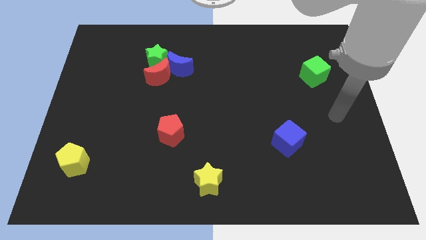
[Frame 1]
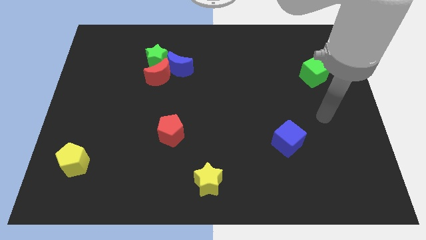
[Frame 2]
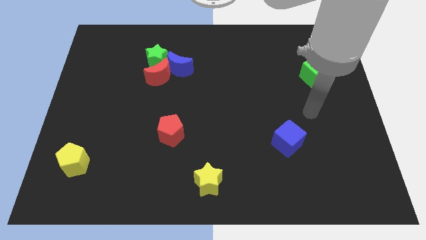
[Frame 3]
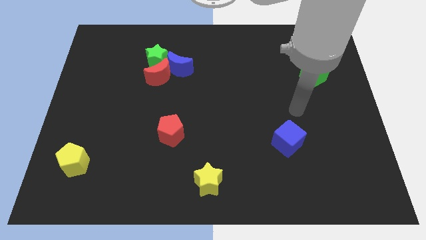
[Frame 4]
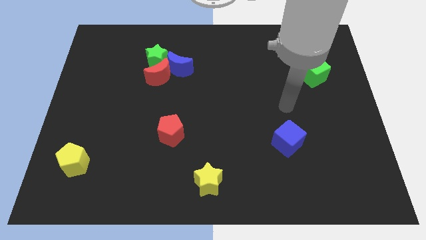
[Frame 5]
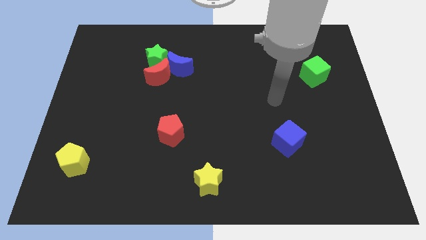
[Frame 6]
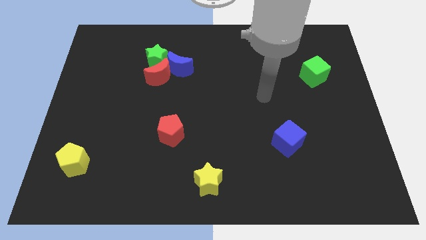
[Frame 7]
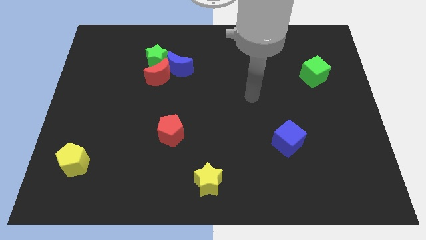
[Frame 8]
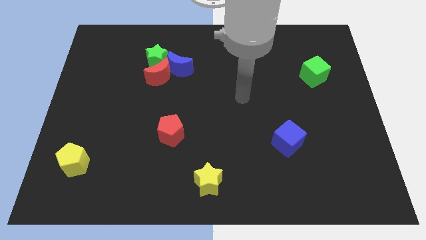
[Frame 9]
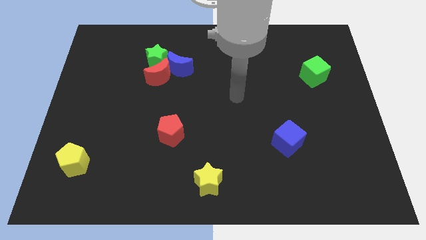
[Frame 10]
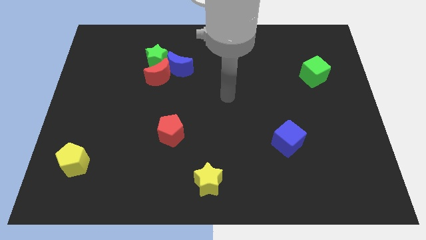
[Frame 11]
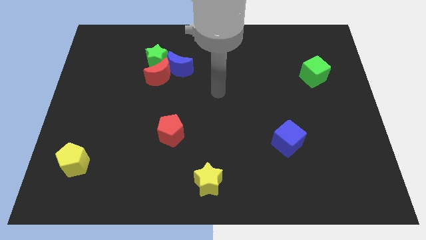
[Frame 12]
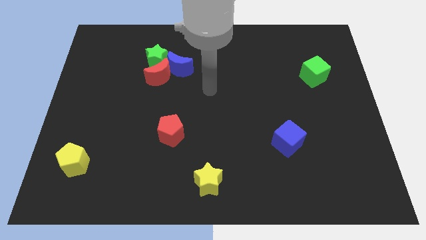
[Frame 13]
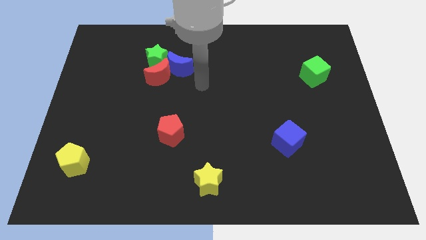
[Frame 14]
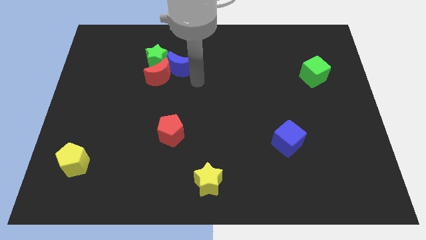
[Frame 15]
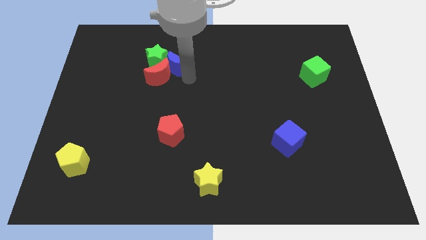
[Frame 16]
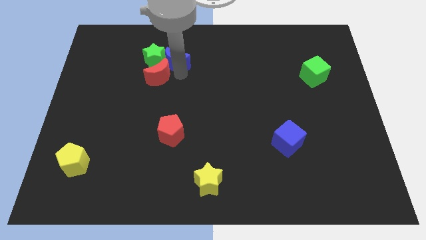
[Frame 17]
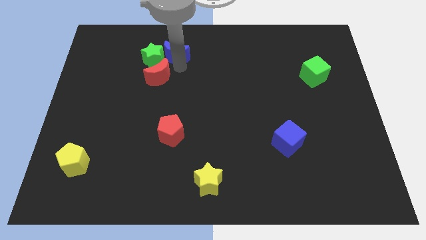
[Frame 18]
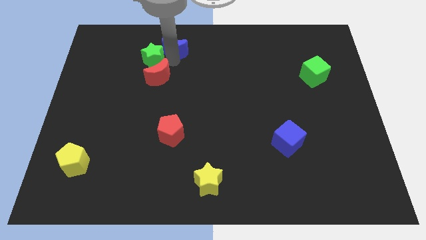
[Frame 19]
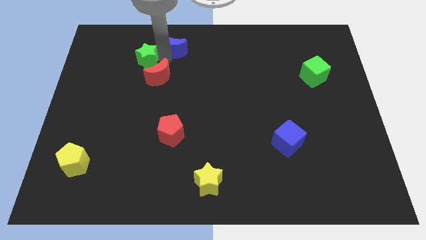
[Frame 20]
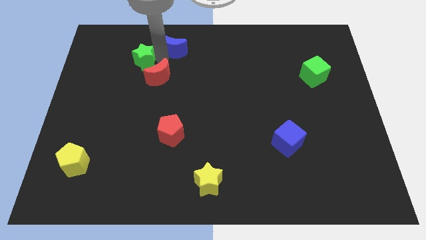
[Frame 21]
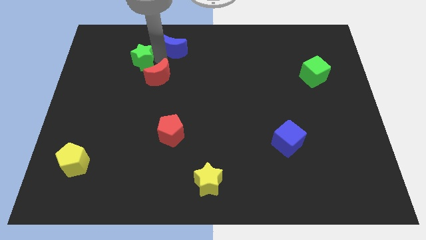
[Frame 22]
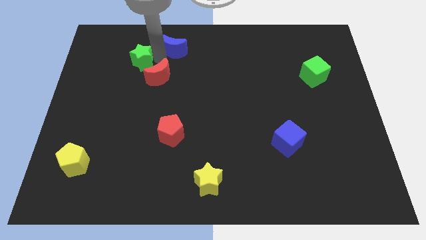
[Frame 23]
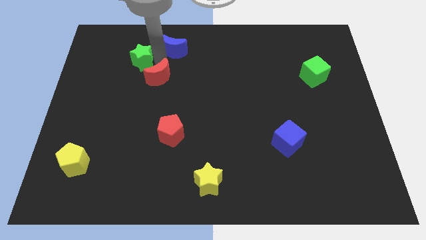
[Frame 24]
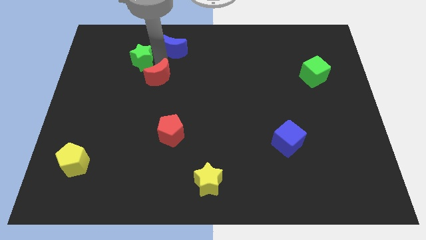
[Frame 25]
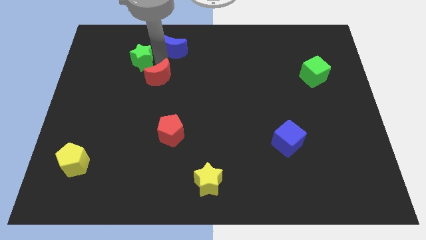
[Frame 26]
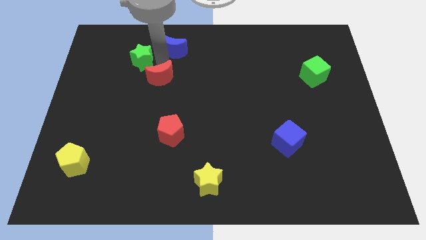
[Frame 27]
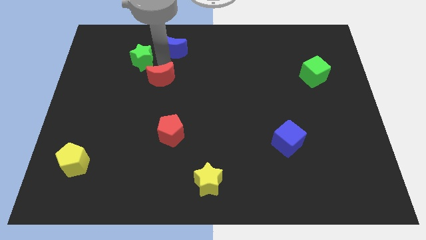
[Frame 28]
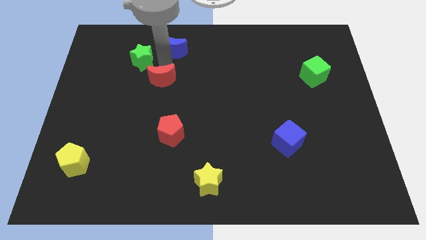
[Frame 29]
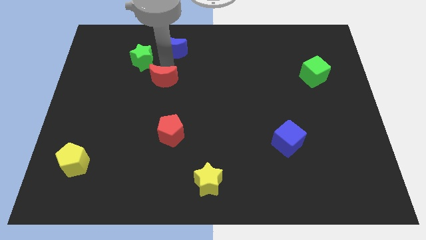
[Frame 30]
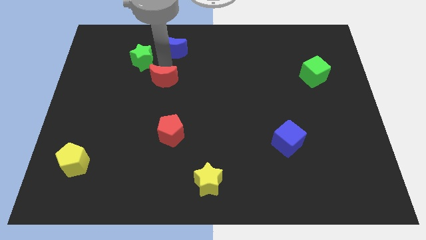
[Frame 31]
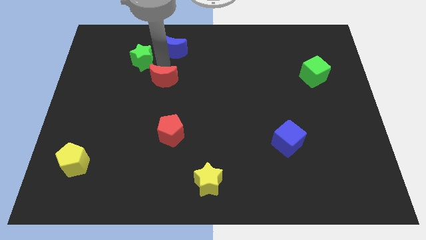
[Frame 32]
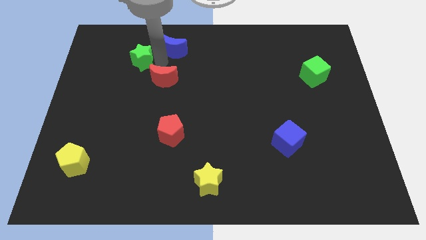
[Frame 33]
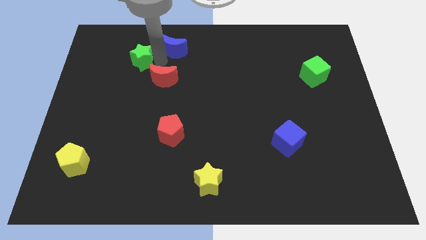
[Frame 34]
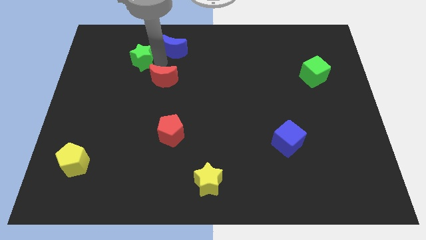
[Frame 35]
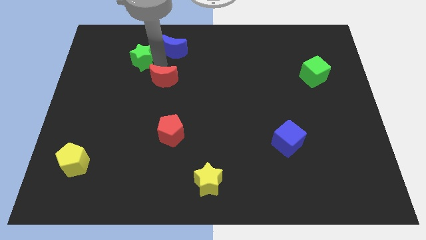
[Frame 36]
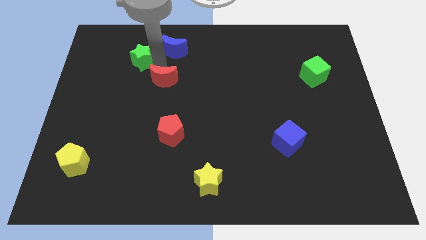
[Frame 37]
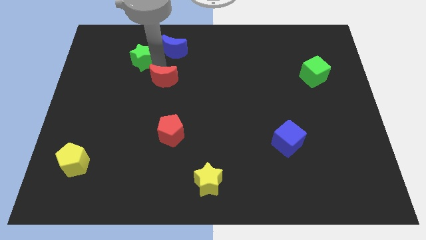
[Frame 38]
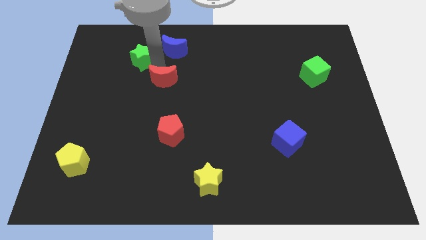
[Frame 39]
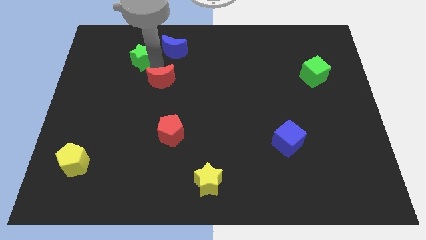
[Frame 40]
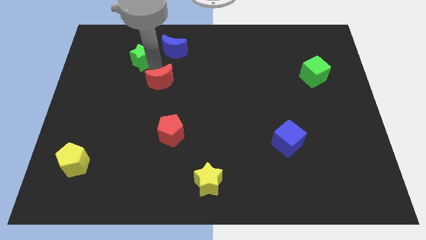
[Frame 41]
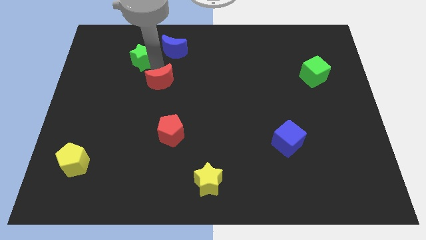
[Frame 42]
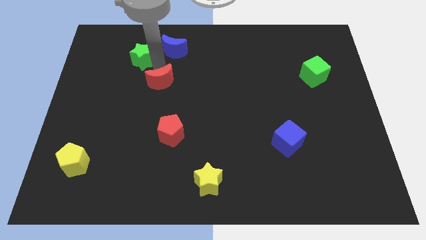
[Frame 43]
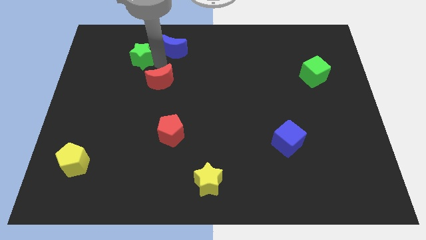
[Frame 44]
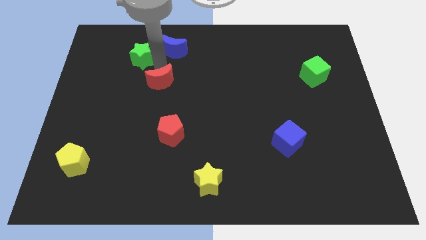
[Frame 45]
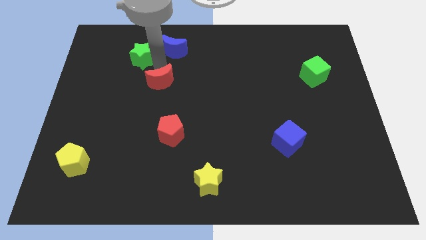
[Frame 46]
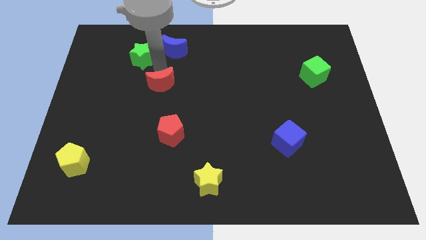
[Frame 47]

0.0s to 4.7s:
separate the red moon from the green star and blue moon

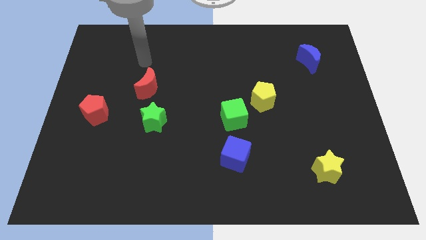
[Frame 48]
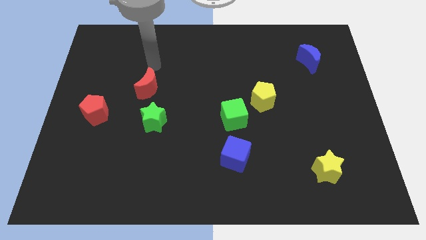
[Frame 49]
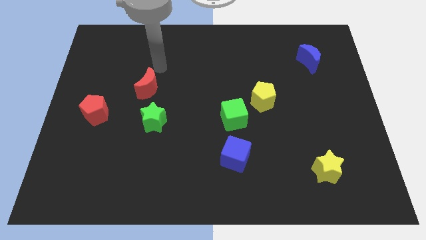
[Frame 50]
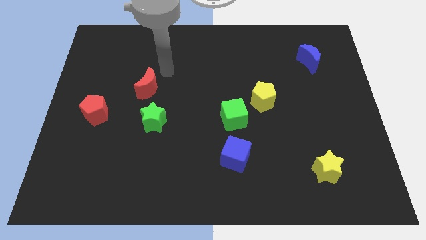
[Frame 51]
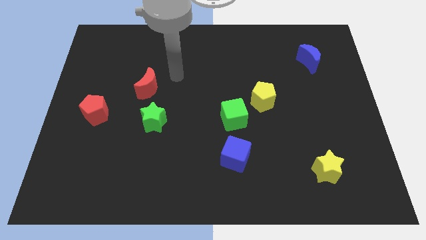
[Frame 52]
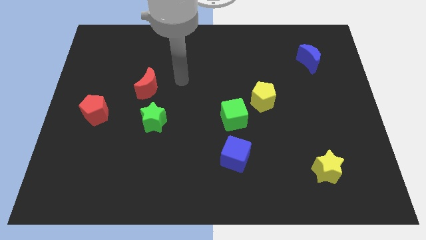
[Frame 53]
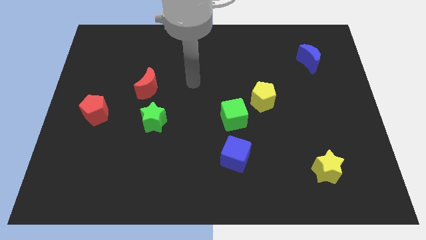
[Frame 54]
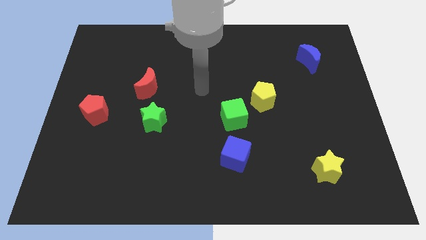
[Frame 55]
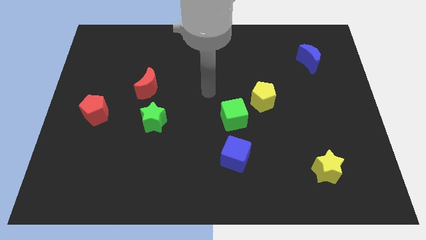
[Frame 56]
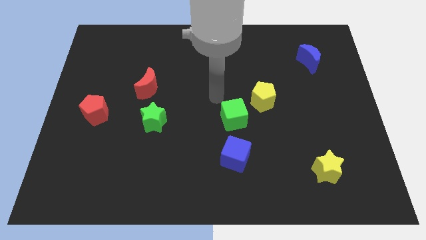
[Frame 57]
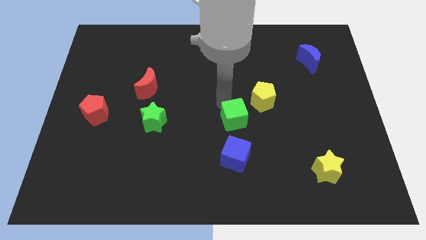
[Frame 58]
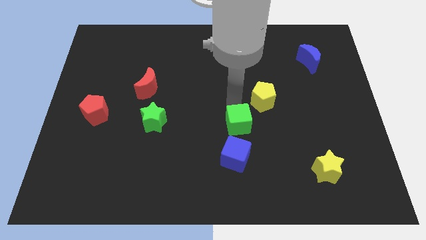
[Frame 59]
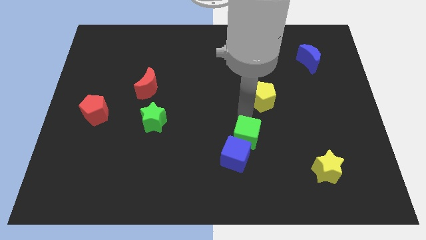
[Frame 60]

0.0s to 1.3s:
move the yellow pentagon away from the green cube

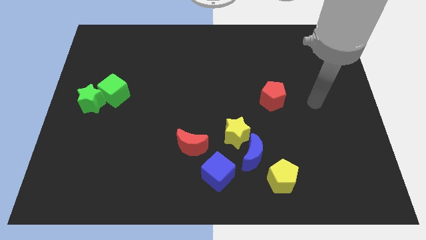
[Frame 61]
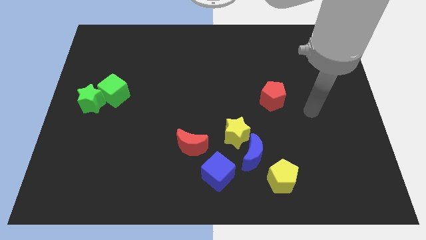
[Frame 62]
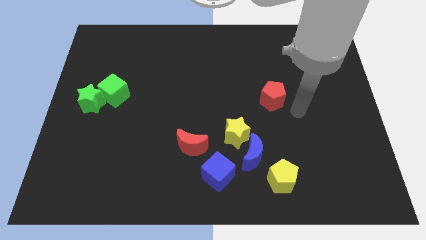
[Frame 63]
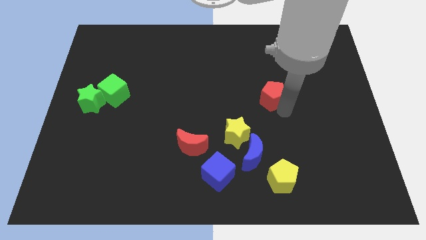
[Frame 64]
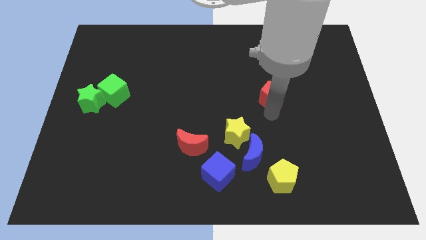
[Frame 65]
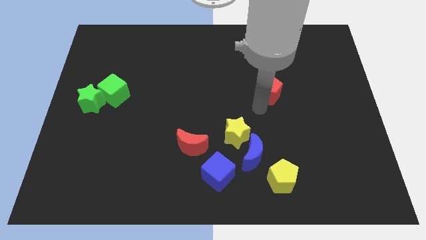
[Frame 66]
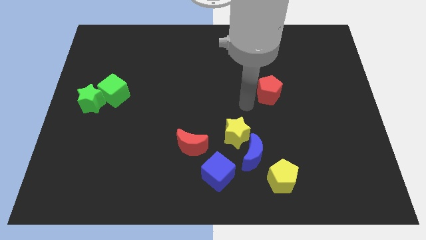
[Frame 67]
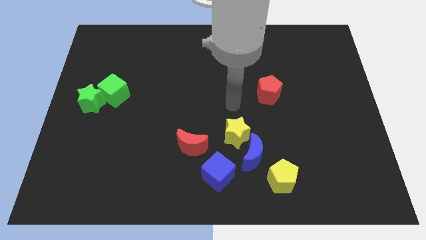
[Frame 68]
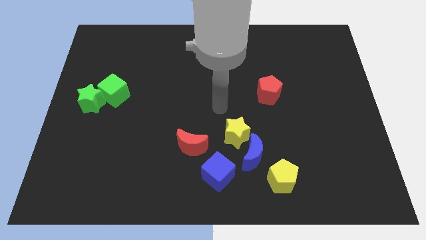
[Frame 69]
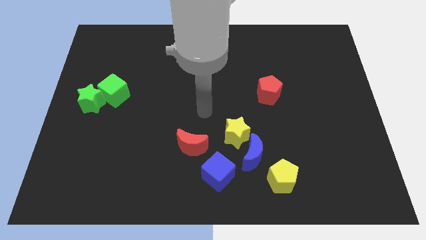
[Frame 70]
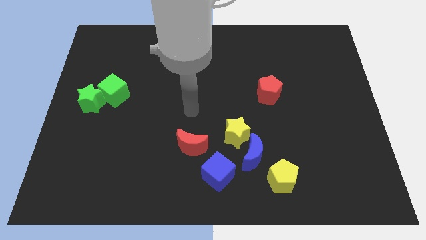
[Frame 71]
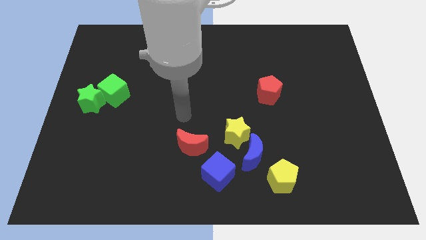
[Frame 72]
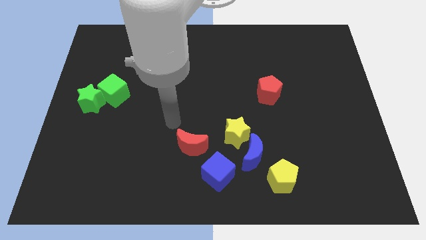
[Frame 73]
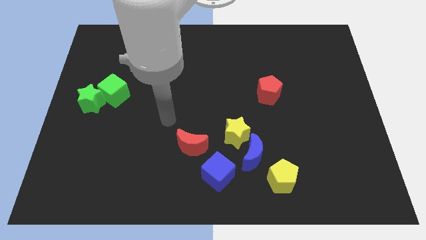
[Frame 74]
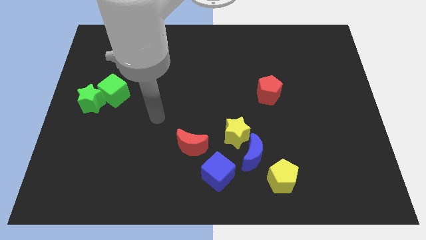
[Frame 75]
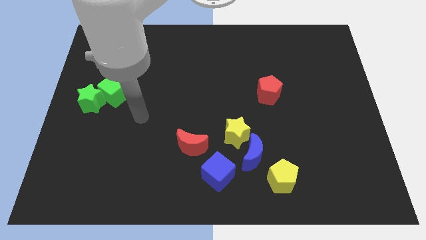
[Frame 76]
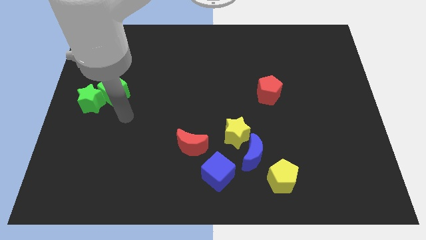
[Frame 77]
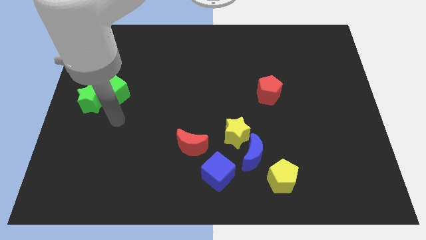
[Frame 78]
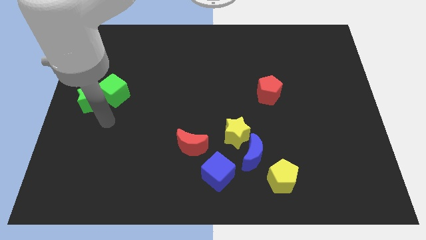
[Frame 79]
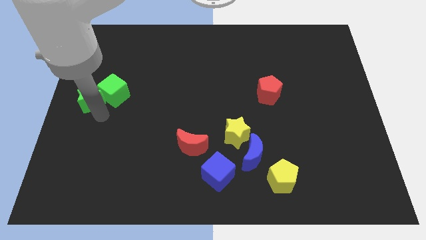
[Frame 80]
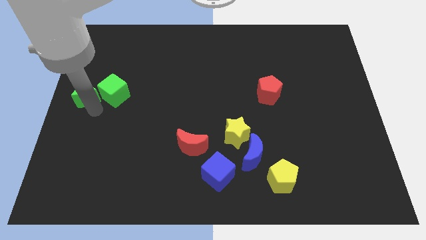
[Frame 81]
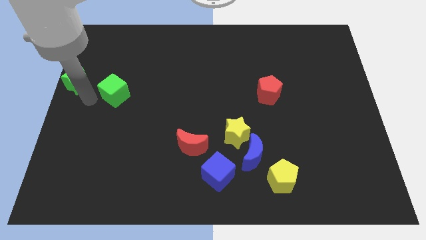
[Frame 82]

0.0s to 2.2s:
pull the green cube apart from the green star

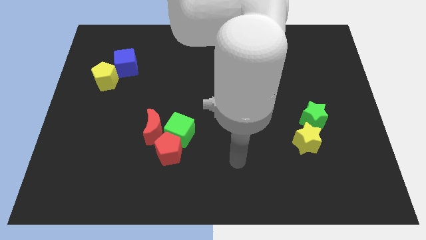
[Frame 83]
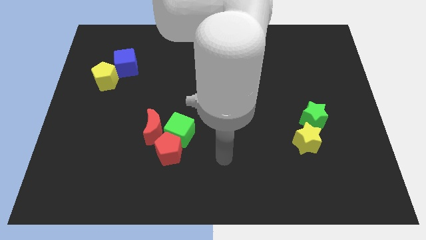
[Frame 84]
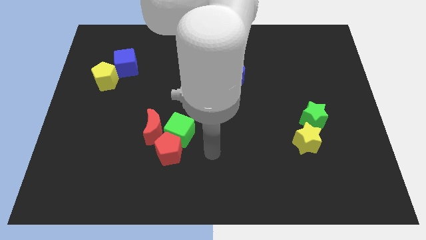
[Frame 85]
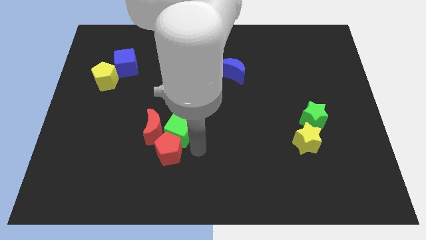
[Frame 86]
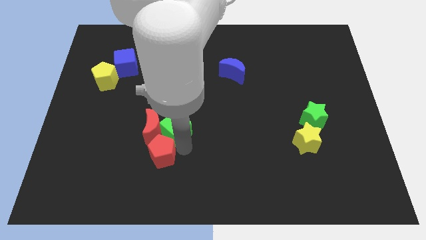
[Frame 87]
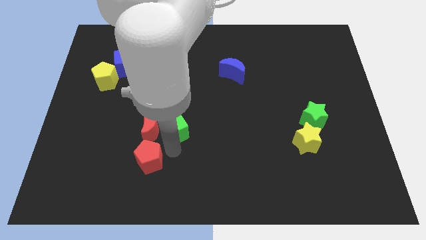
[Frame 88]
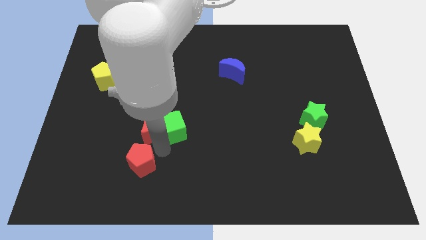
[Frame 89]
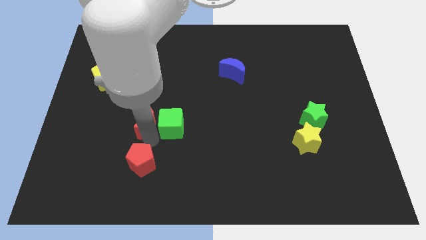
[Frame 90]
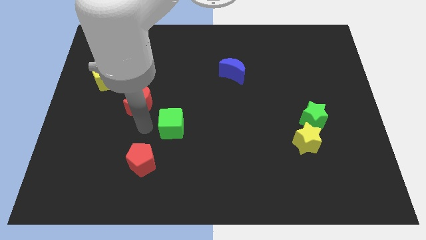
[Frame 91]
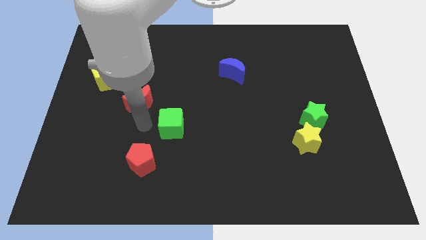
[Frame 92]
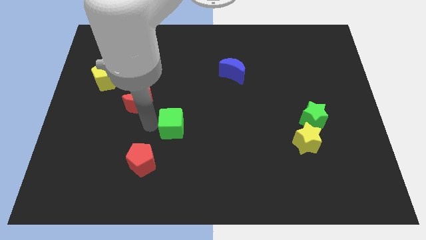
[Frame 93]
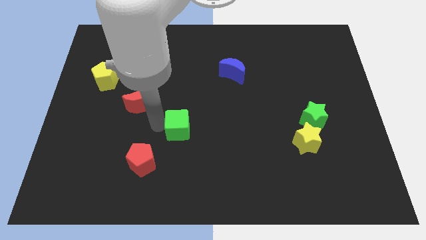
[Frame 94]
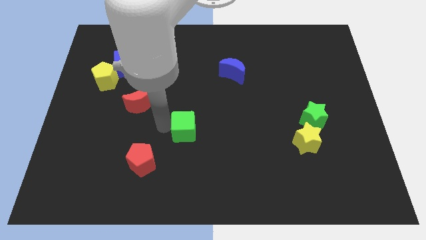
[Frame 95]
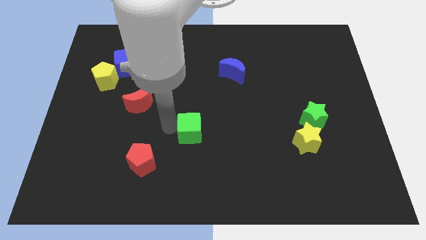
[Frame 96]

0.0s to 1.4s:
move the green cube away from the red pentagon and red moon
